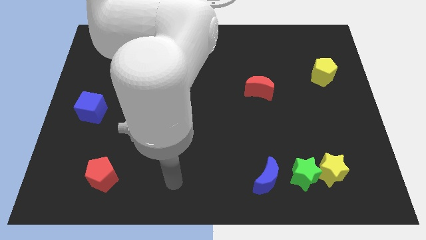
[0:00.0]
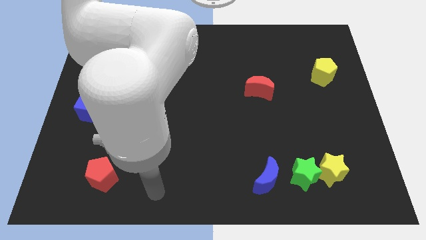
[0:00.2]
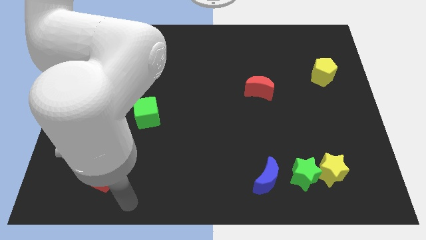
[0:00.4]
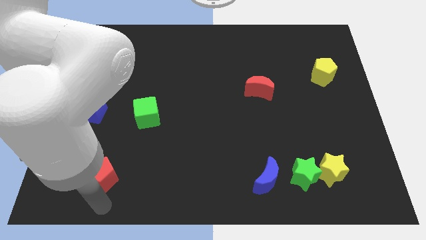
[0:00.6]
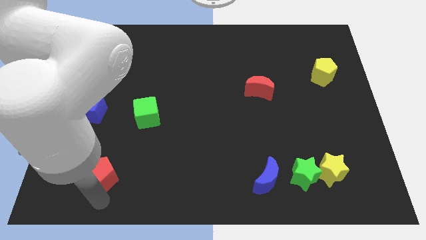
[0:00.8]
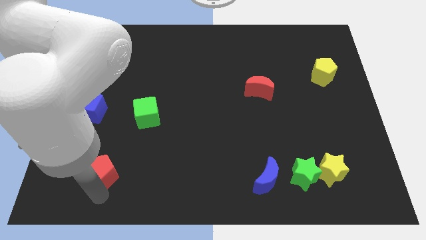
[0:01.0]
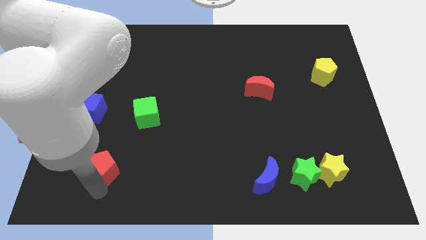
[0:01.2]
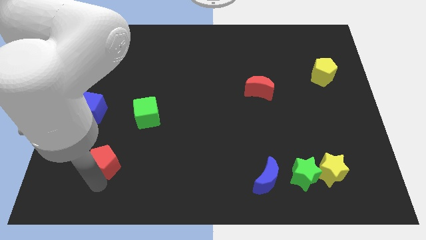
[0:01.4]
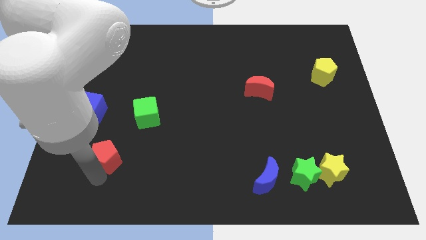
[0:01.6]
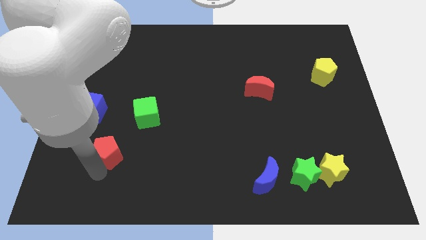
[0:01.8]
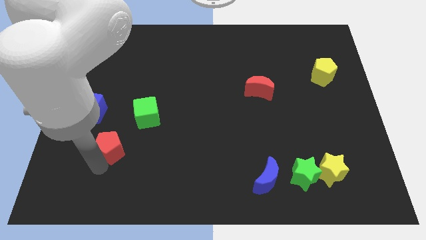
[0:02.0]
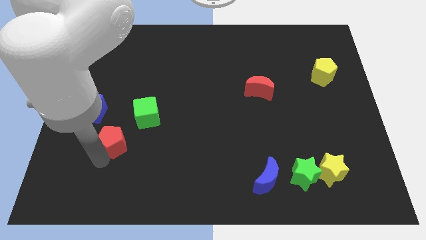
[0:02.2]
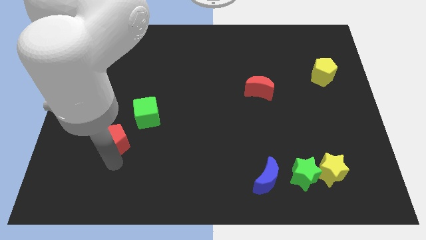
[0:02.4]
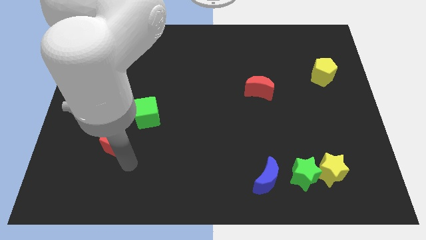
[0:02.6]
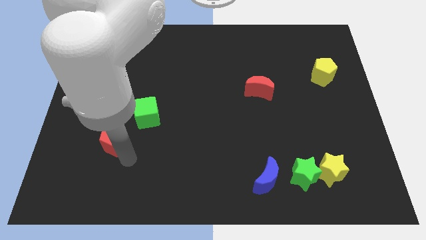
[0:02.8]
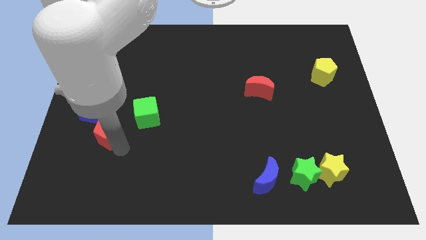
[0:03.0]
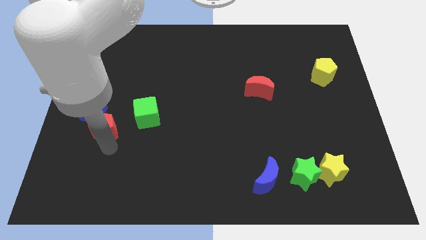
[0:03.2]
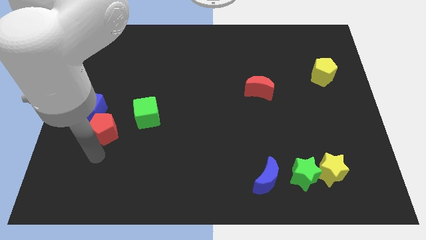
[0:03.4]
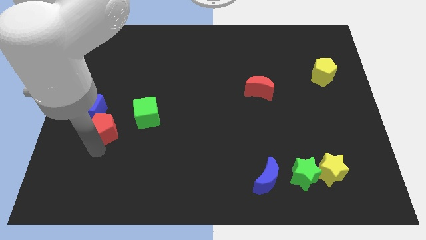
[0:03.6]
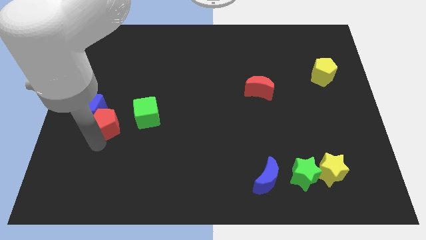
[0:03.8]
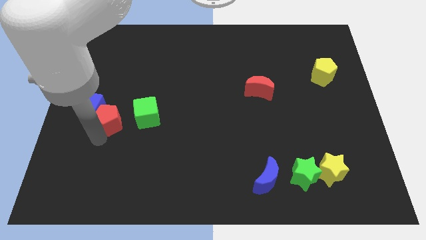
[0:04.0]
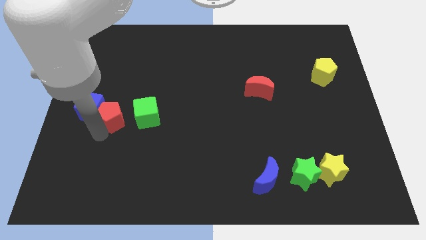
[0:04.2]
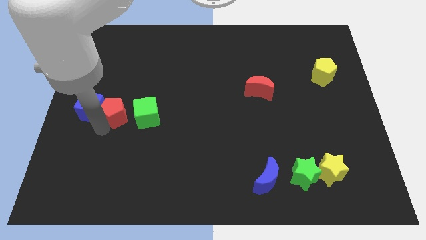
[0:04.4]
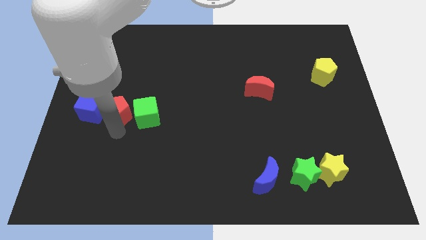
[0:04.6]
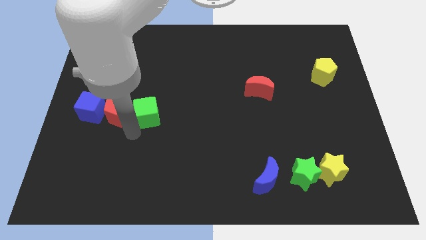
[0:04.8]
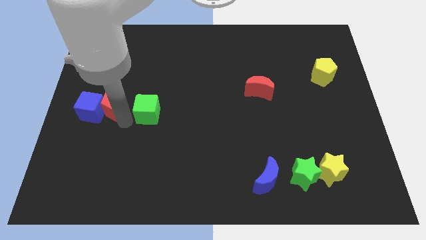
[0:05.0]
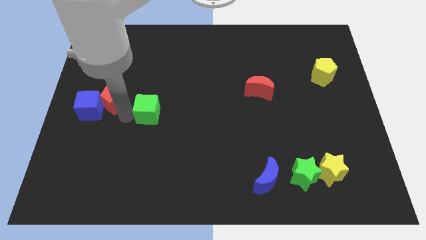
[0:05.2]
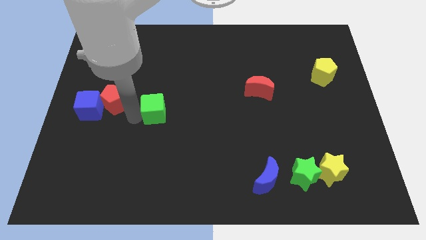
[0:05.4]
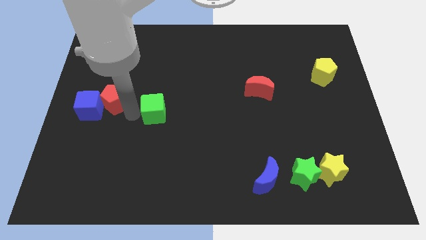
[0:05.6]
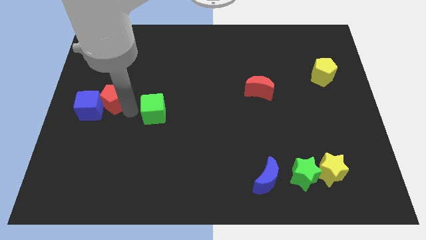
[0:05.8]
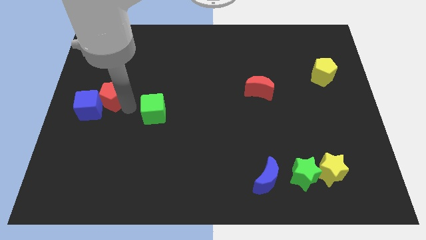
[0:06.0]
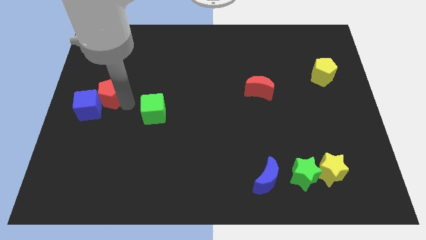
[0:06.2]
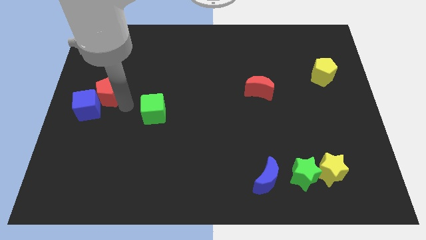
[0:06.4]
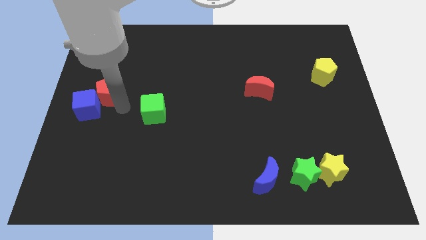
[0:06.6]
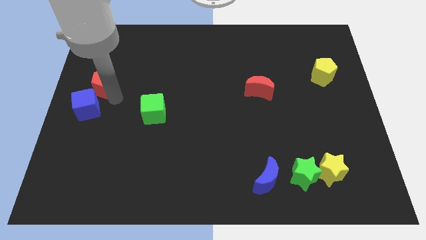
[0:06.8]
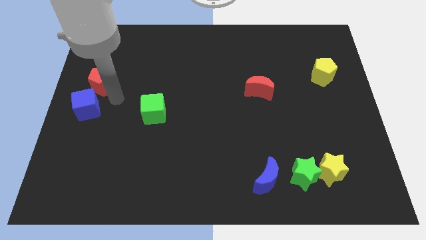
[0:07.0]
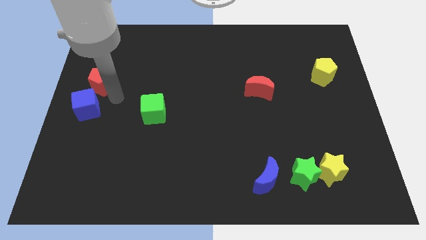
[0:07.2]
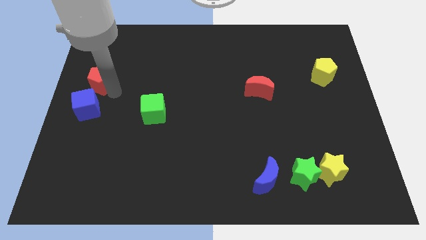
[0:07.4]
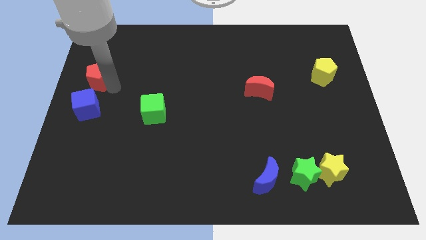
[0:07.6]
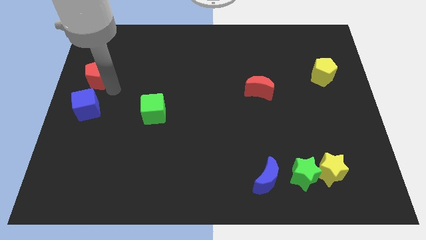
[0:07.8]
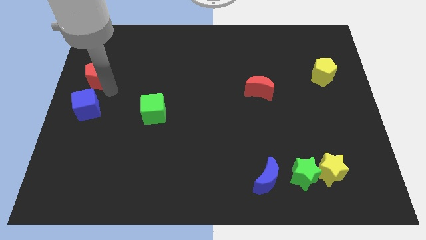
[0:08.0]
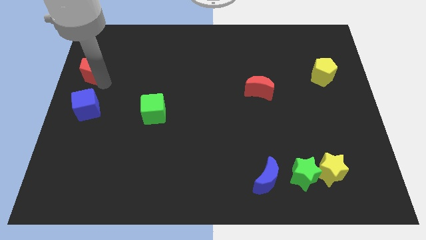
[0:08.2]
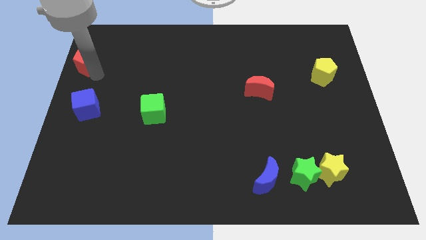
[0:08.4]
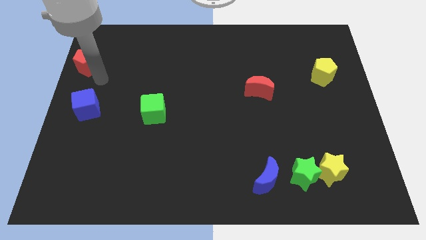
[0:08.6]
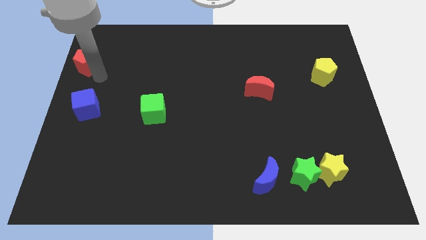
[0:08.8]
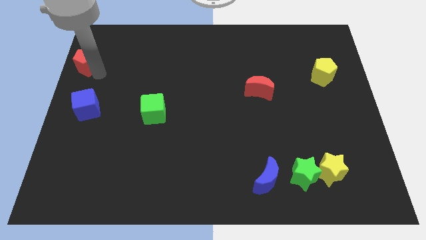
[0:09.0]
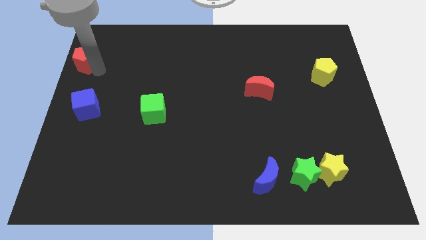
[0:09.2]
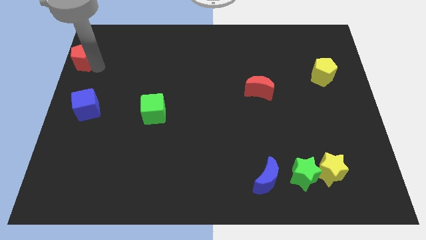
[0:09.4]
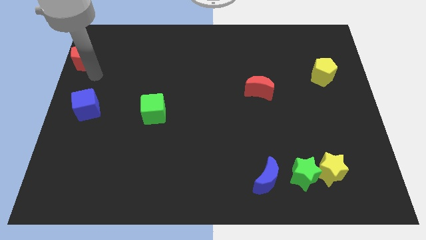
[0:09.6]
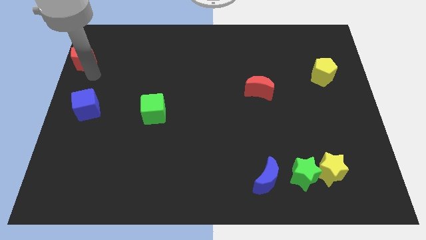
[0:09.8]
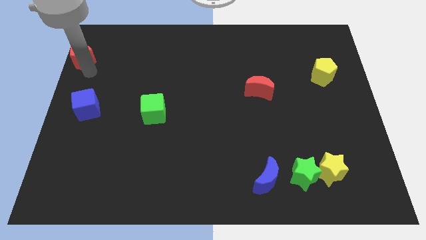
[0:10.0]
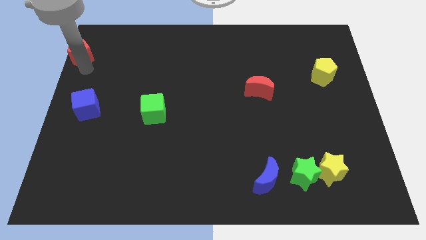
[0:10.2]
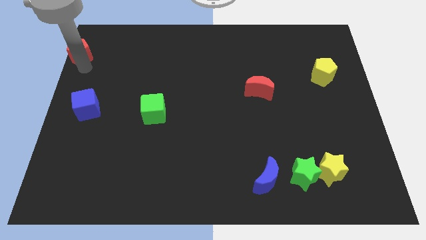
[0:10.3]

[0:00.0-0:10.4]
put the red pentagon to the top left

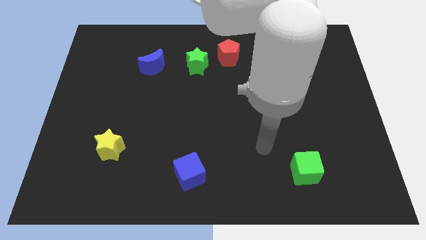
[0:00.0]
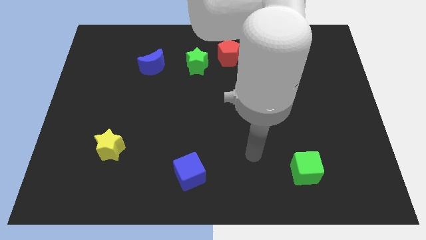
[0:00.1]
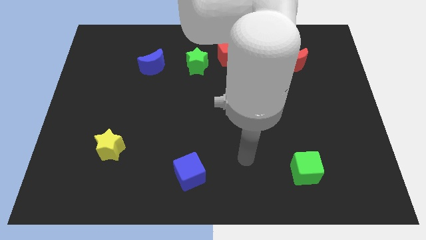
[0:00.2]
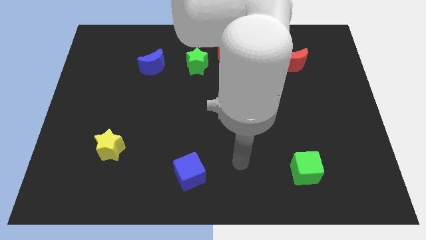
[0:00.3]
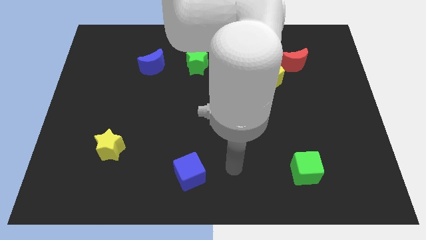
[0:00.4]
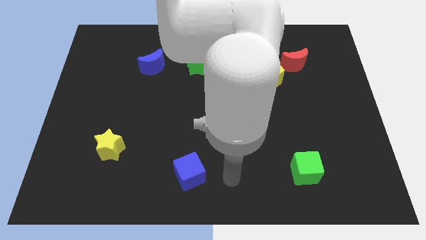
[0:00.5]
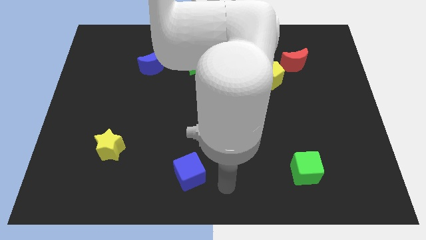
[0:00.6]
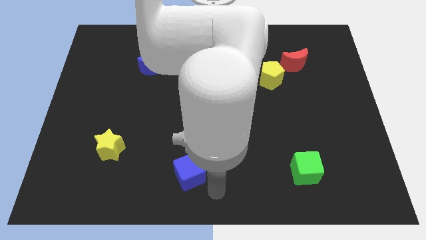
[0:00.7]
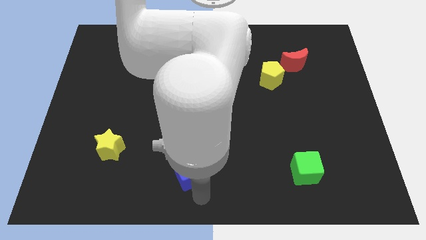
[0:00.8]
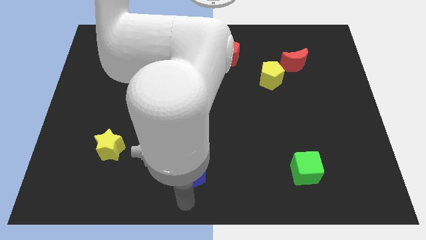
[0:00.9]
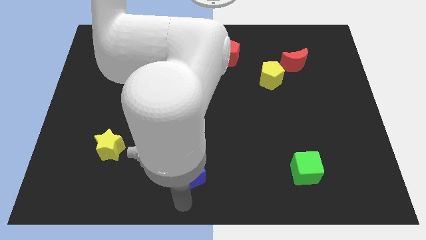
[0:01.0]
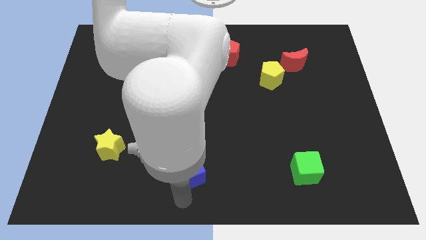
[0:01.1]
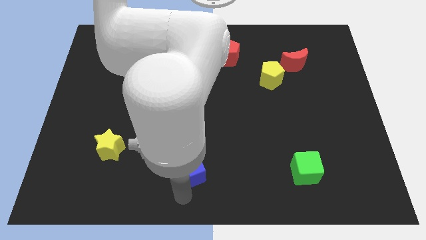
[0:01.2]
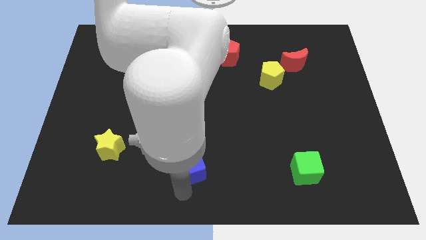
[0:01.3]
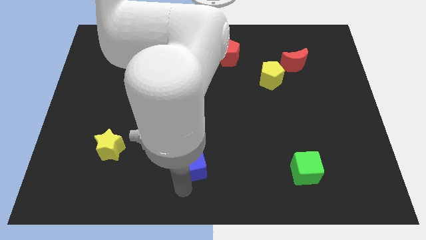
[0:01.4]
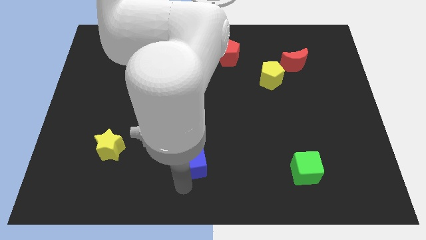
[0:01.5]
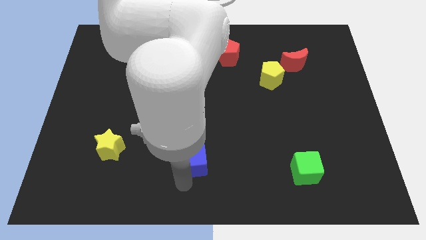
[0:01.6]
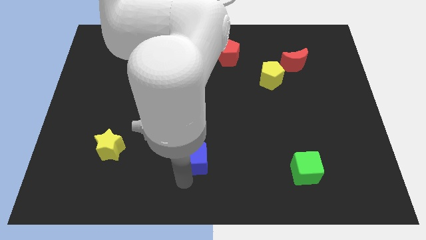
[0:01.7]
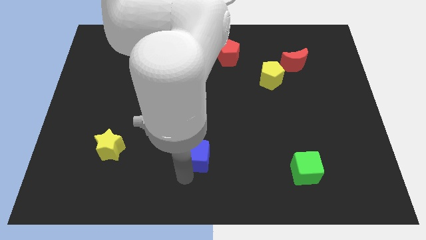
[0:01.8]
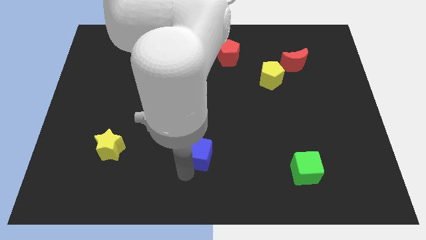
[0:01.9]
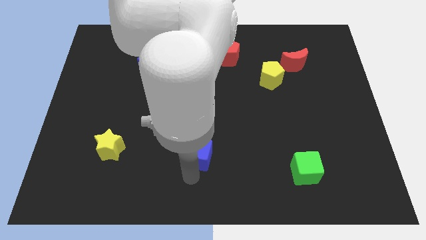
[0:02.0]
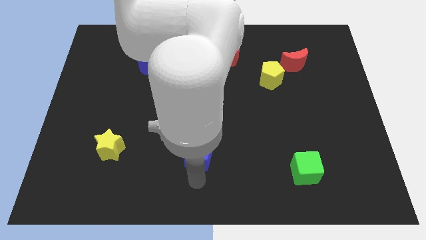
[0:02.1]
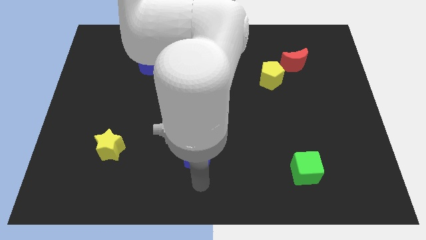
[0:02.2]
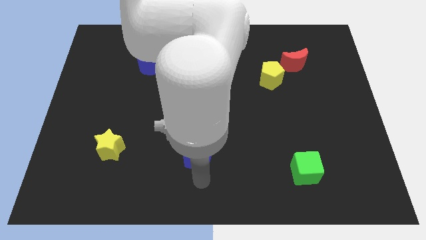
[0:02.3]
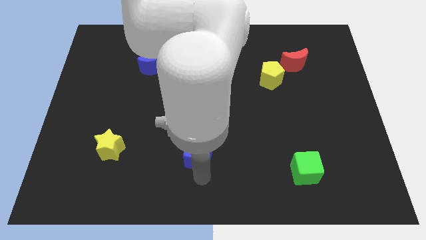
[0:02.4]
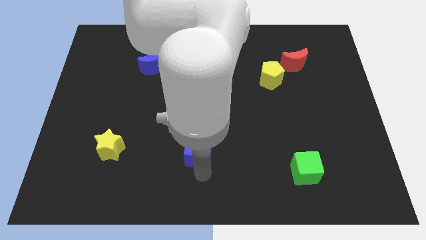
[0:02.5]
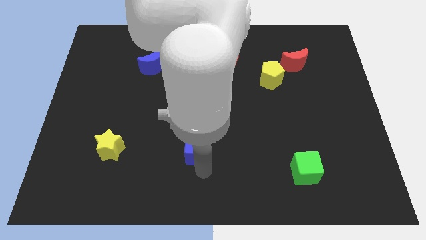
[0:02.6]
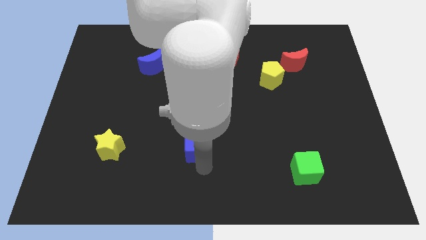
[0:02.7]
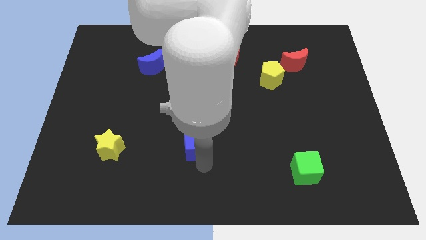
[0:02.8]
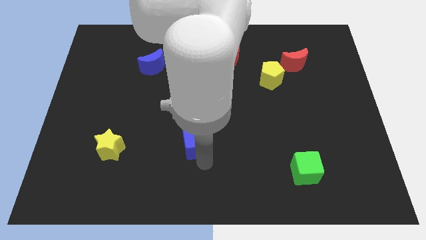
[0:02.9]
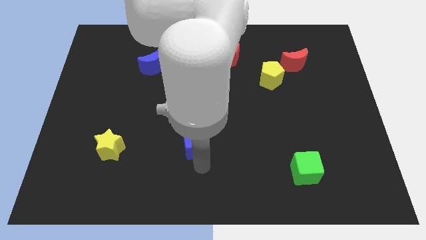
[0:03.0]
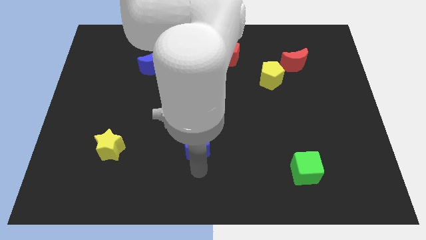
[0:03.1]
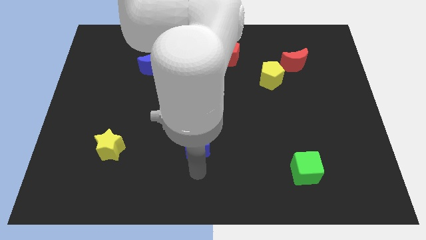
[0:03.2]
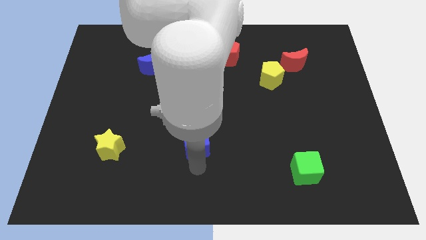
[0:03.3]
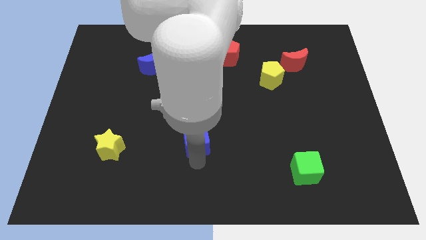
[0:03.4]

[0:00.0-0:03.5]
push the blue cube to the middle of the board
